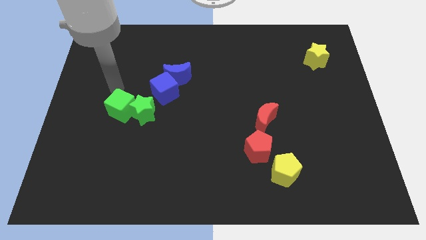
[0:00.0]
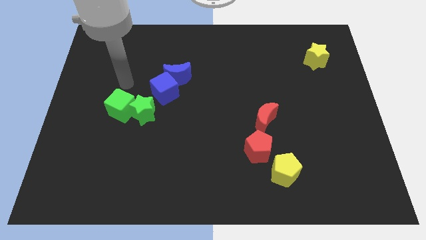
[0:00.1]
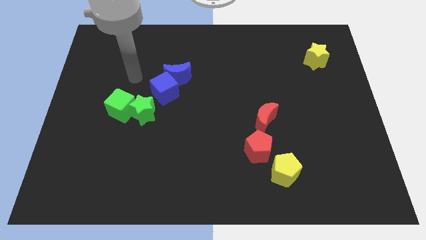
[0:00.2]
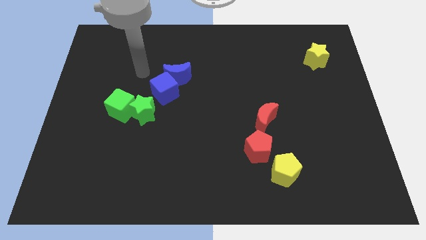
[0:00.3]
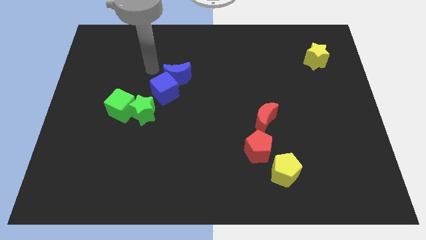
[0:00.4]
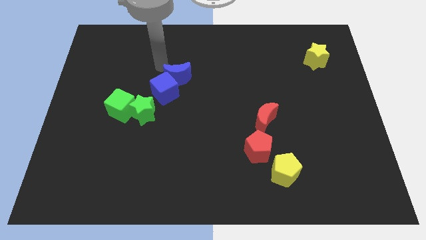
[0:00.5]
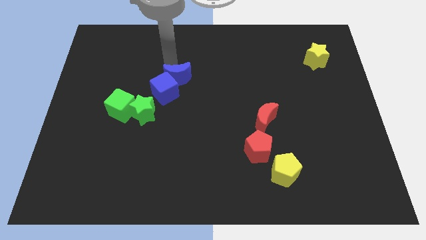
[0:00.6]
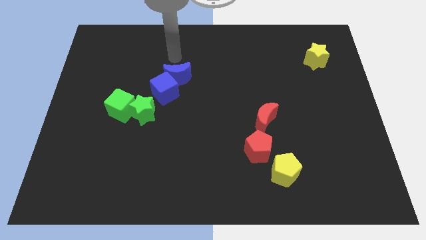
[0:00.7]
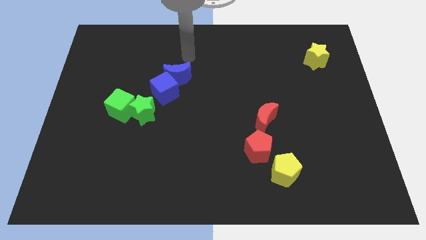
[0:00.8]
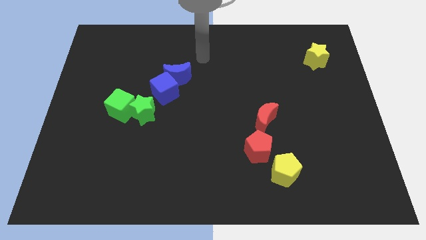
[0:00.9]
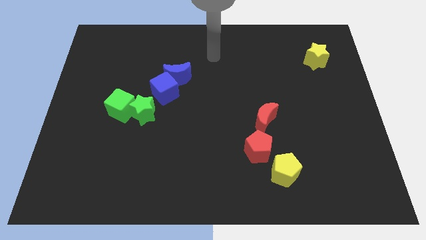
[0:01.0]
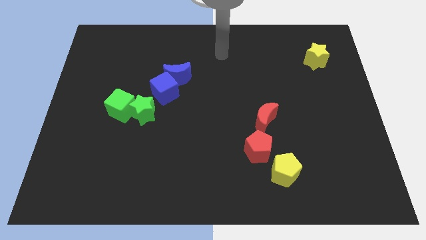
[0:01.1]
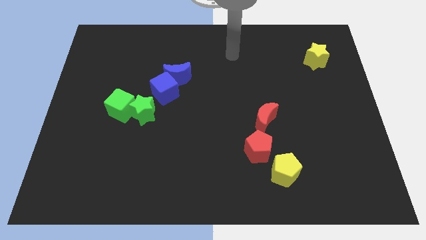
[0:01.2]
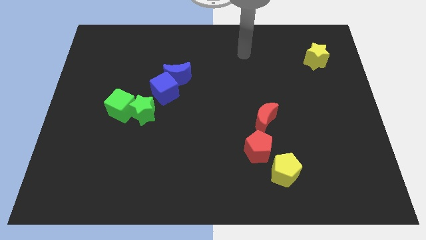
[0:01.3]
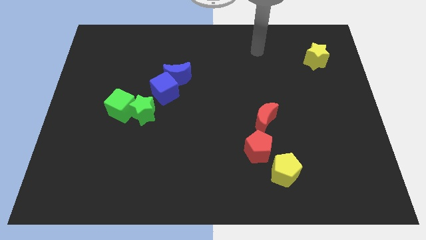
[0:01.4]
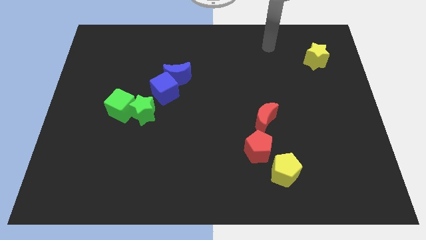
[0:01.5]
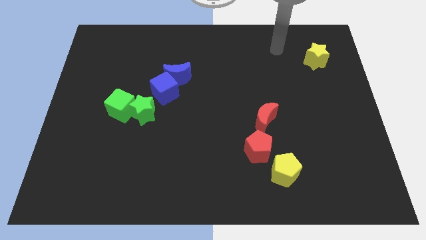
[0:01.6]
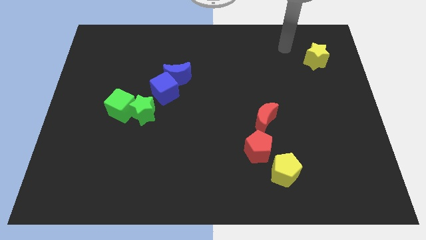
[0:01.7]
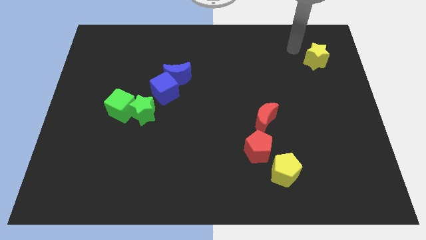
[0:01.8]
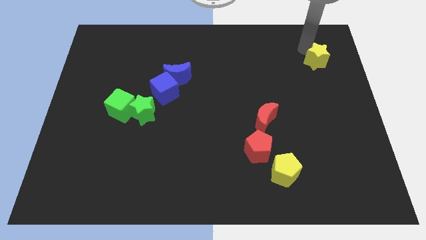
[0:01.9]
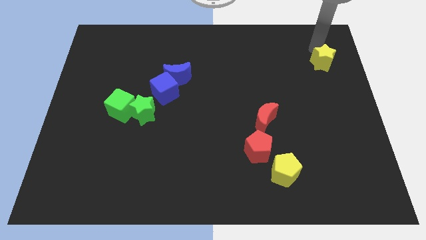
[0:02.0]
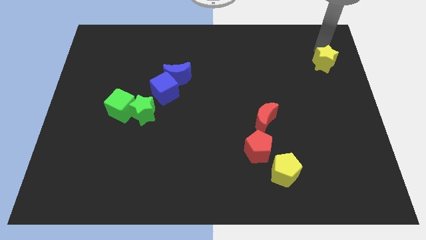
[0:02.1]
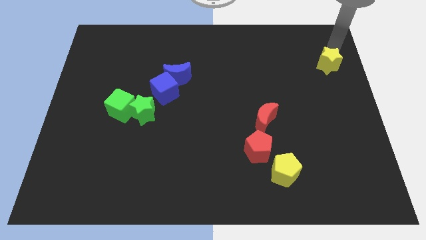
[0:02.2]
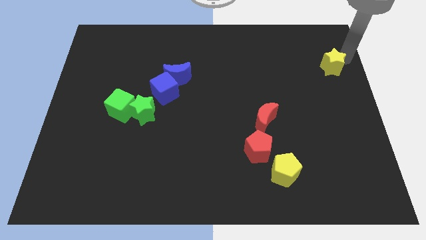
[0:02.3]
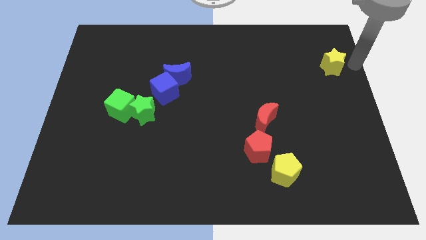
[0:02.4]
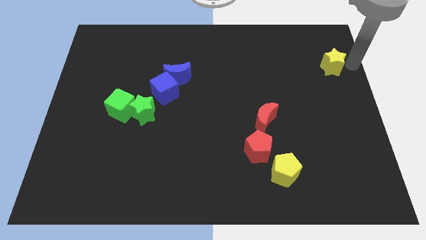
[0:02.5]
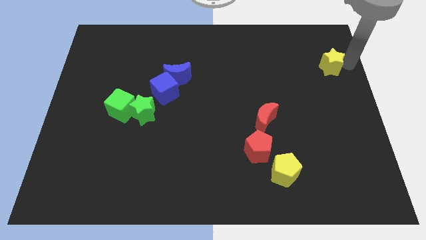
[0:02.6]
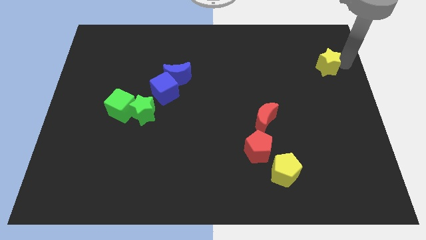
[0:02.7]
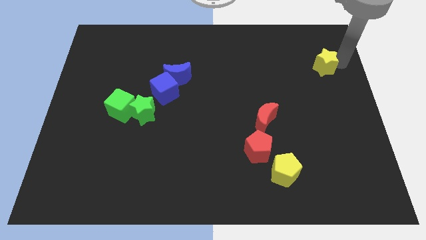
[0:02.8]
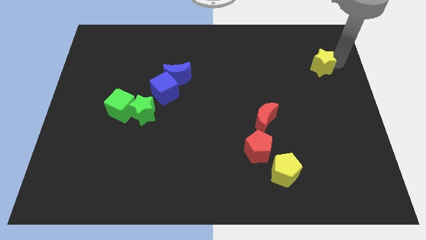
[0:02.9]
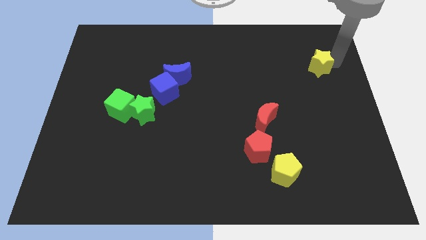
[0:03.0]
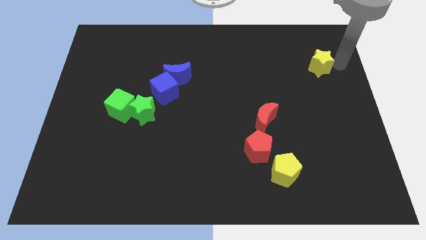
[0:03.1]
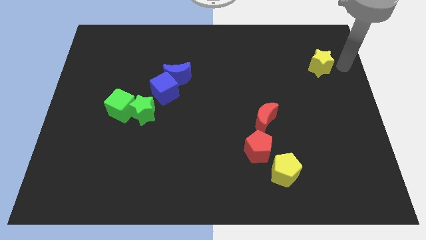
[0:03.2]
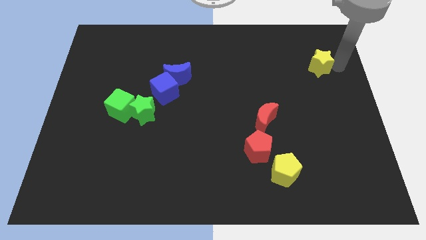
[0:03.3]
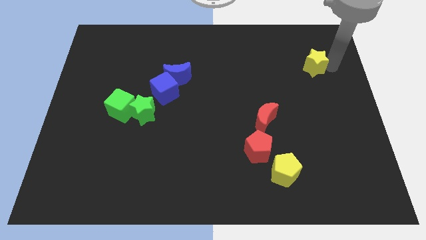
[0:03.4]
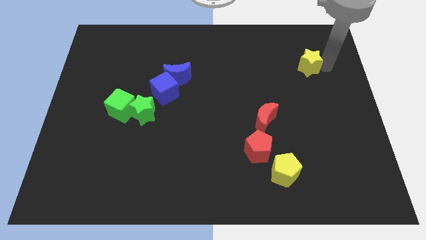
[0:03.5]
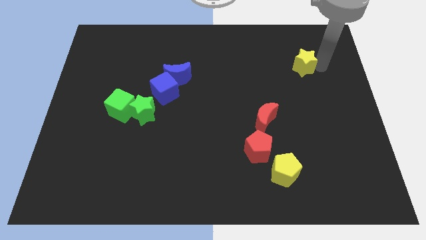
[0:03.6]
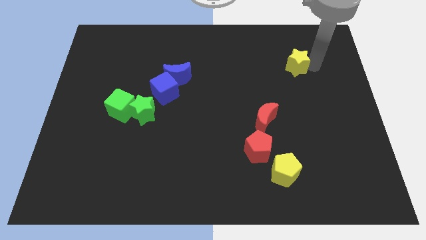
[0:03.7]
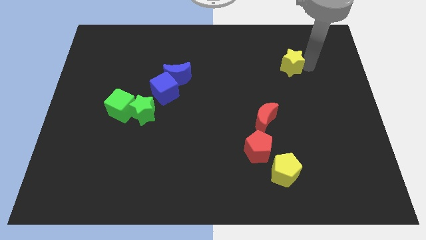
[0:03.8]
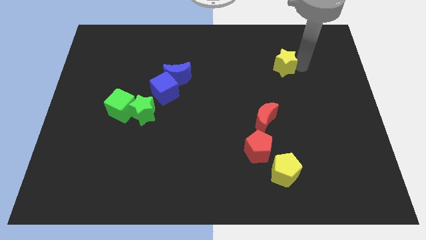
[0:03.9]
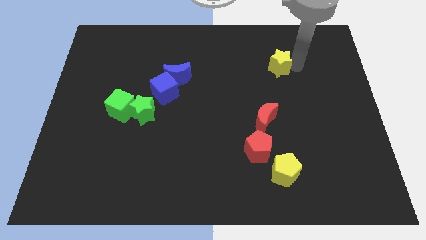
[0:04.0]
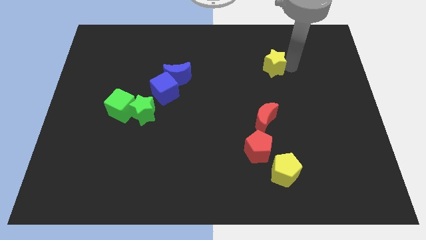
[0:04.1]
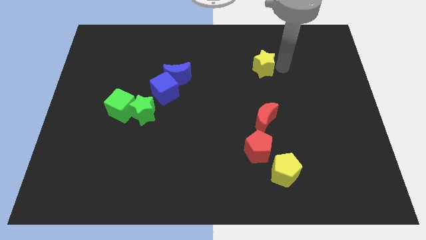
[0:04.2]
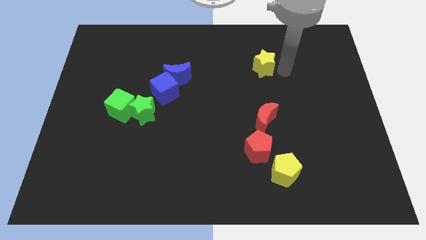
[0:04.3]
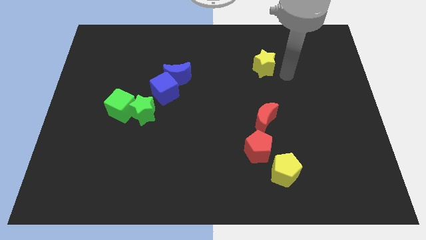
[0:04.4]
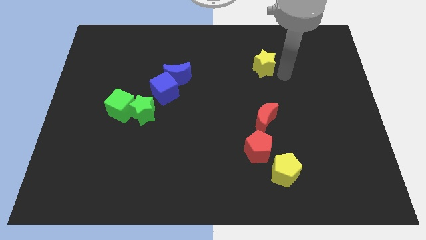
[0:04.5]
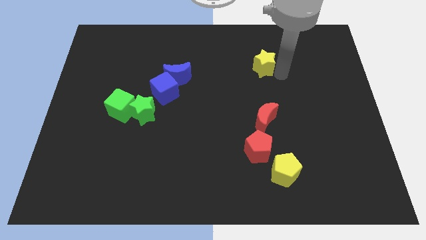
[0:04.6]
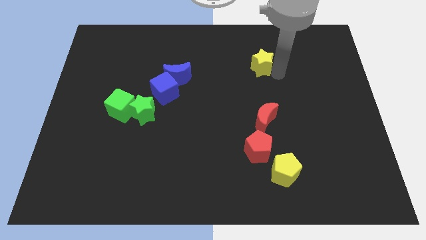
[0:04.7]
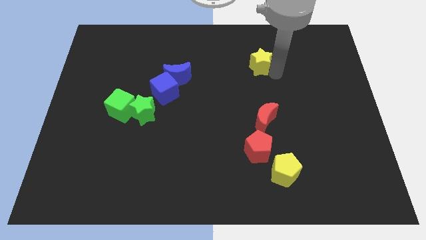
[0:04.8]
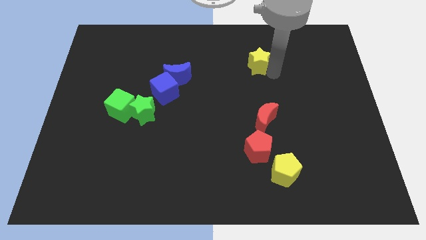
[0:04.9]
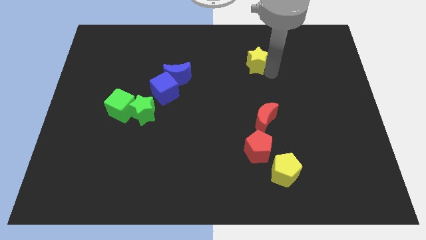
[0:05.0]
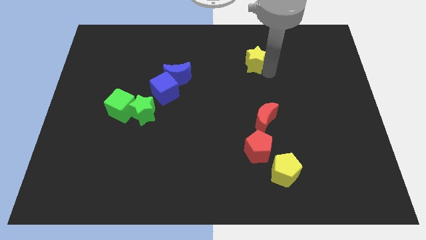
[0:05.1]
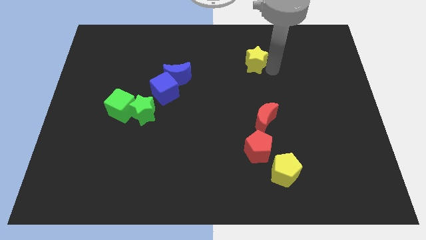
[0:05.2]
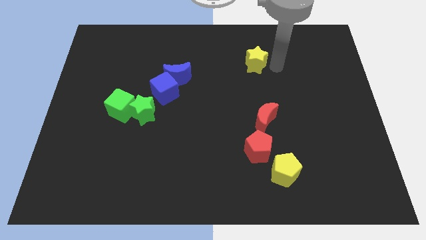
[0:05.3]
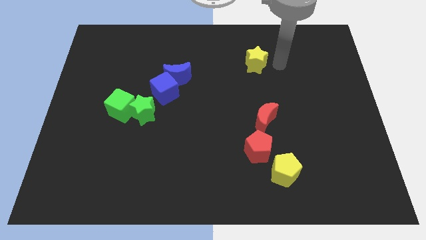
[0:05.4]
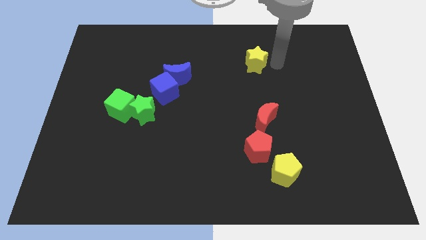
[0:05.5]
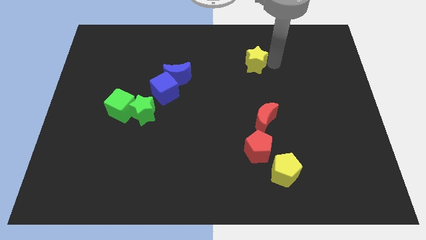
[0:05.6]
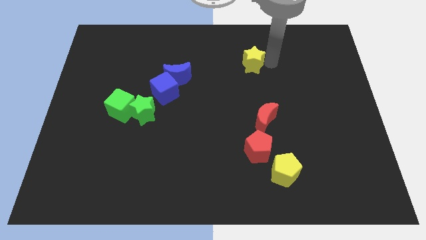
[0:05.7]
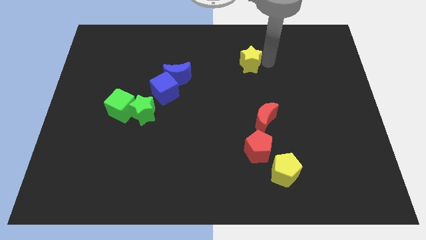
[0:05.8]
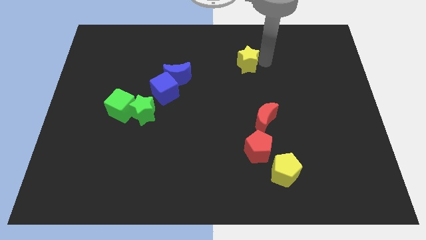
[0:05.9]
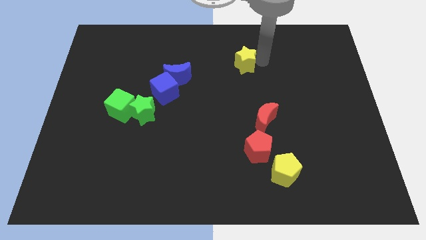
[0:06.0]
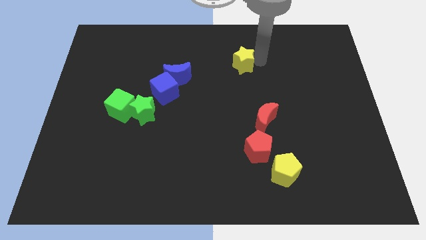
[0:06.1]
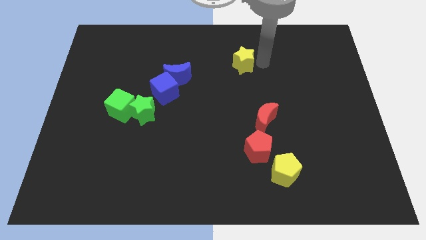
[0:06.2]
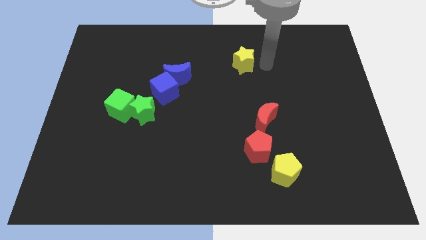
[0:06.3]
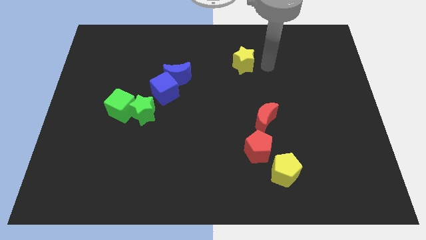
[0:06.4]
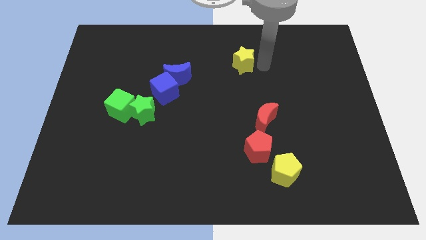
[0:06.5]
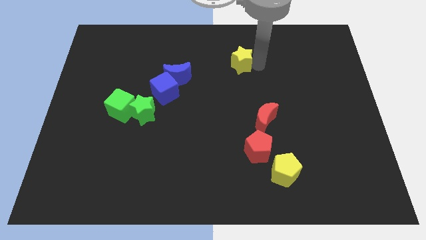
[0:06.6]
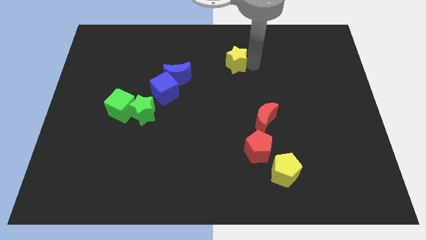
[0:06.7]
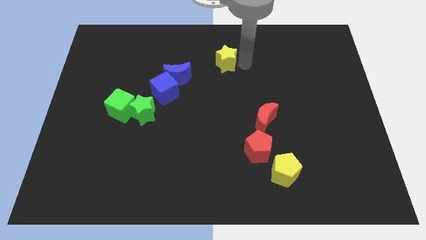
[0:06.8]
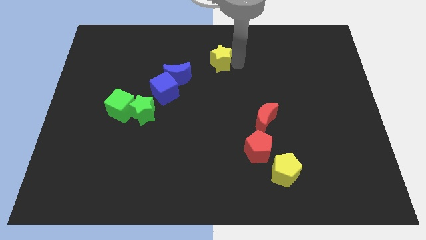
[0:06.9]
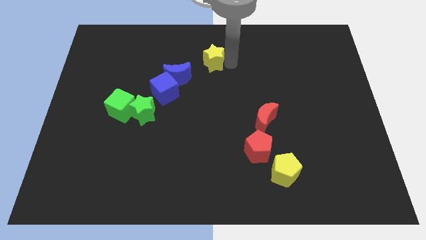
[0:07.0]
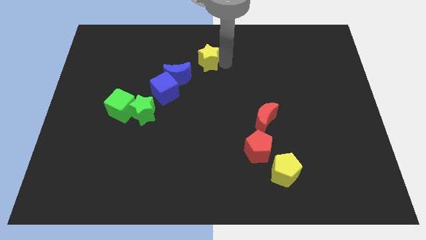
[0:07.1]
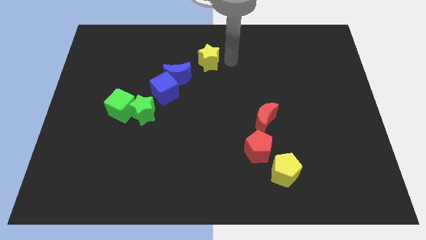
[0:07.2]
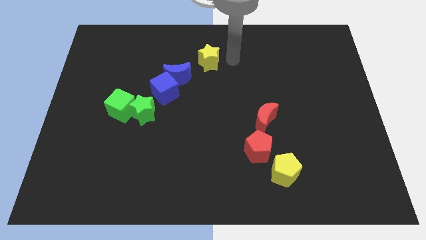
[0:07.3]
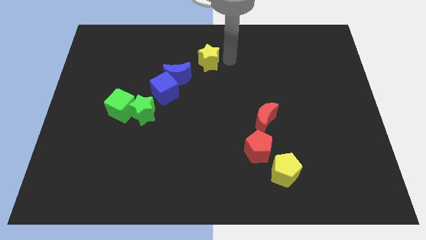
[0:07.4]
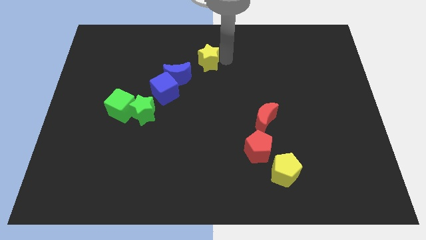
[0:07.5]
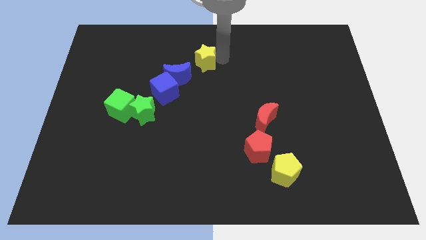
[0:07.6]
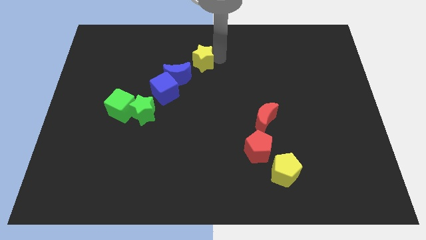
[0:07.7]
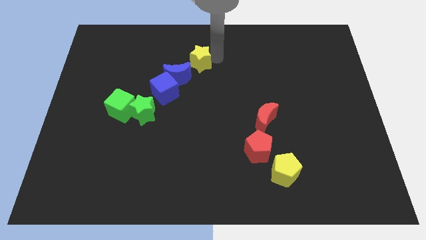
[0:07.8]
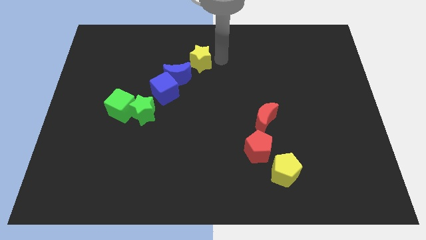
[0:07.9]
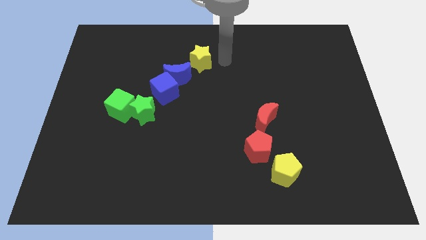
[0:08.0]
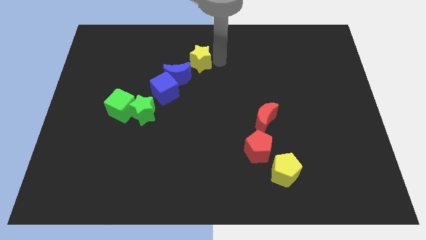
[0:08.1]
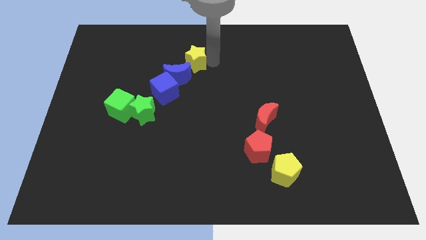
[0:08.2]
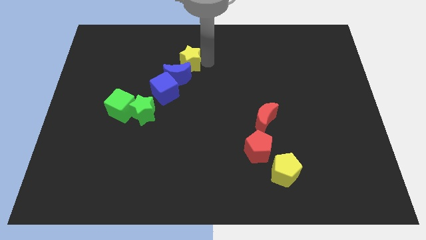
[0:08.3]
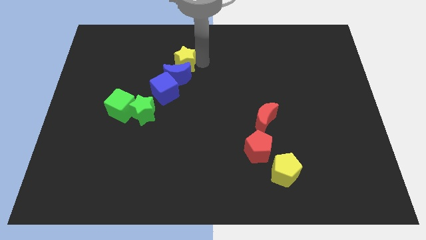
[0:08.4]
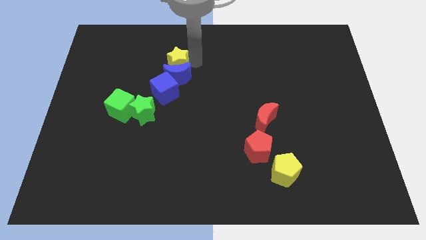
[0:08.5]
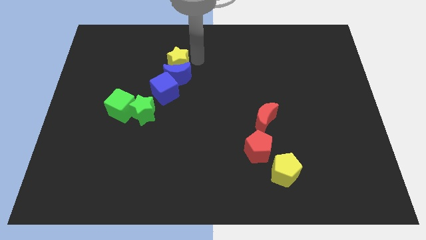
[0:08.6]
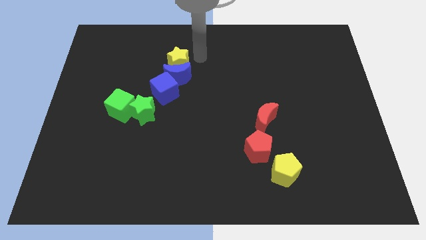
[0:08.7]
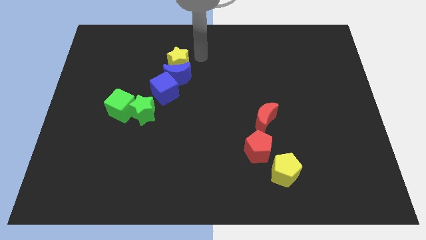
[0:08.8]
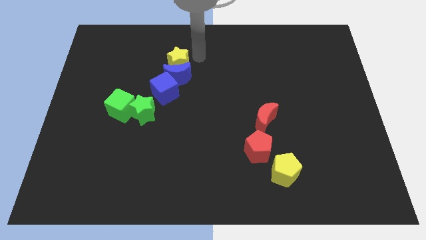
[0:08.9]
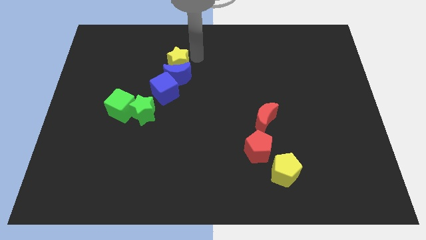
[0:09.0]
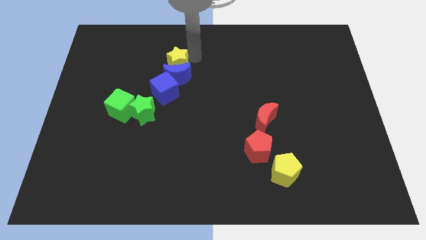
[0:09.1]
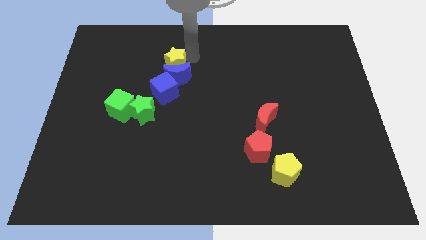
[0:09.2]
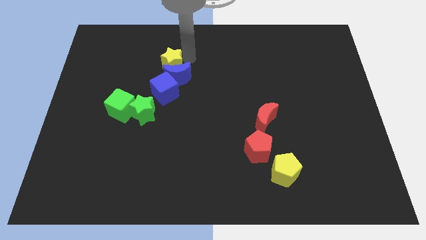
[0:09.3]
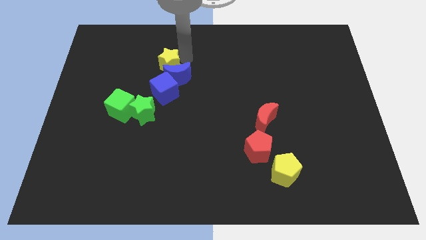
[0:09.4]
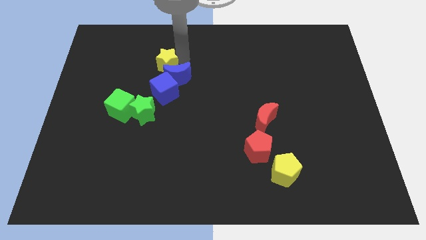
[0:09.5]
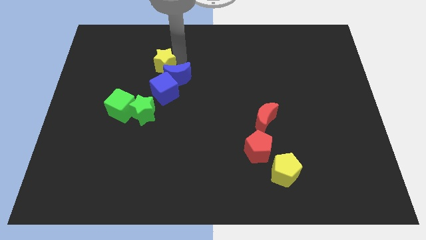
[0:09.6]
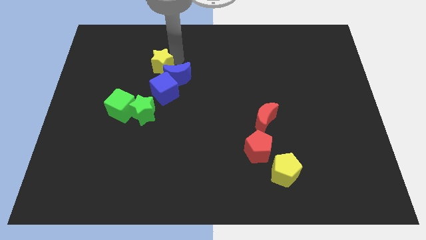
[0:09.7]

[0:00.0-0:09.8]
push the yellow star above the green star
